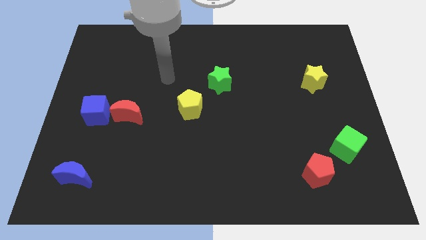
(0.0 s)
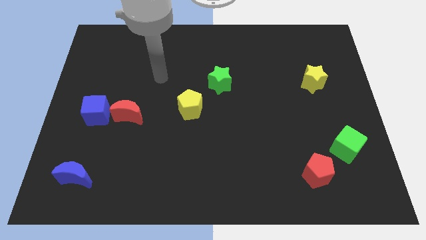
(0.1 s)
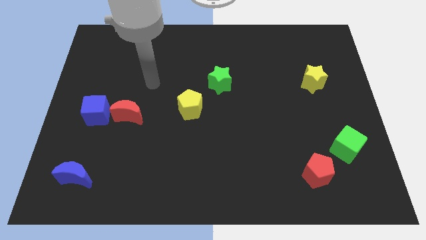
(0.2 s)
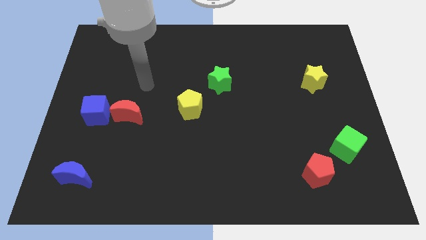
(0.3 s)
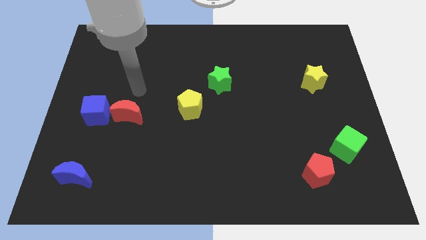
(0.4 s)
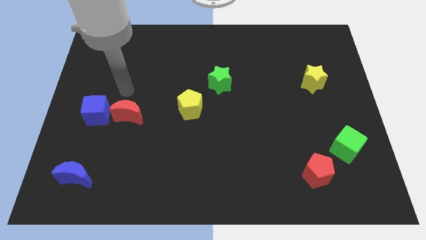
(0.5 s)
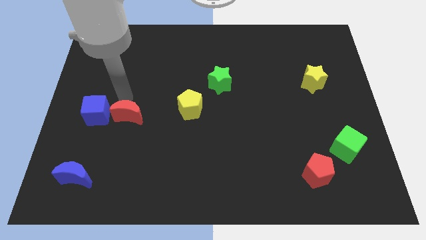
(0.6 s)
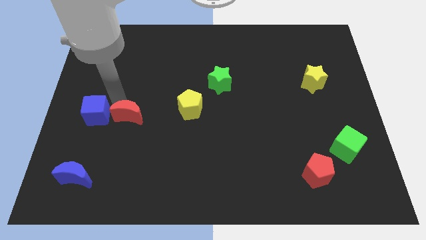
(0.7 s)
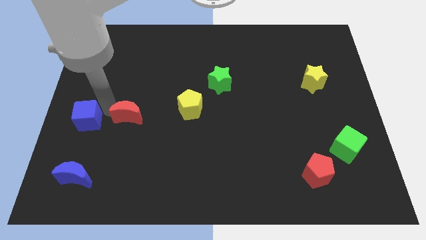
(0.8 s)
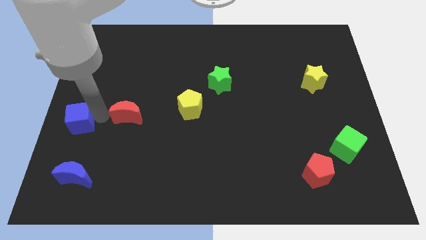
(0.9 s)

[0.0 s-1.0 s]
separate the red moon from the blue cube

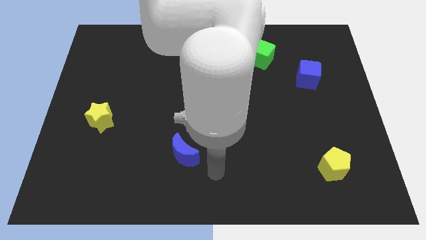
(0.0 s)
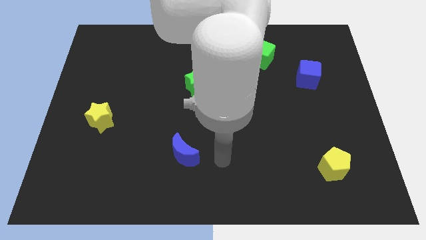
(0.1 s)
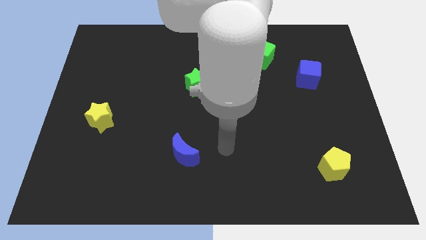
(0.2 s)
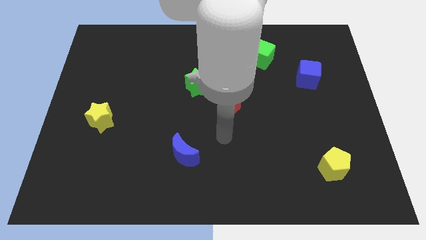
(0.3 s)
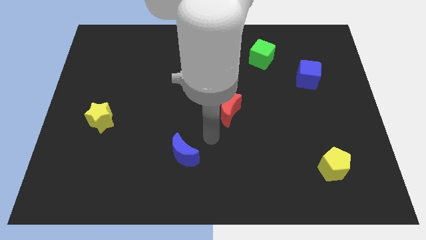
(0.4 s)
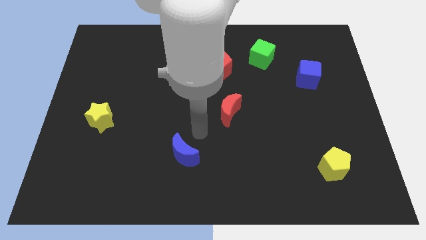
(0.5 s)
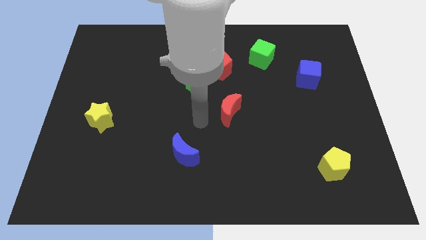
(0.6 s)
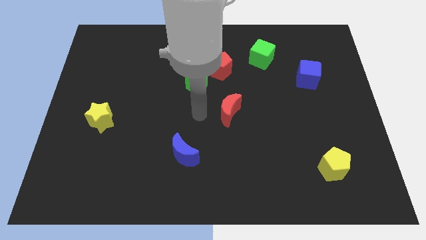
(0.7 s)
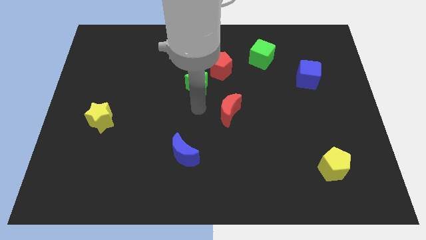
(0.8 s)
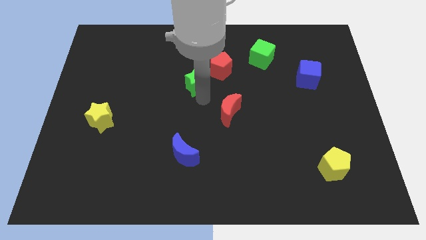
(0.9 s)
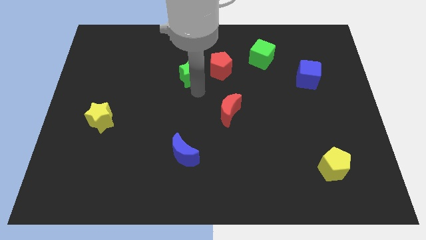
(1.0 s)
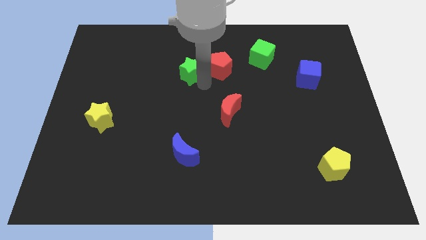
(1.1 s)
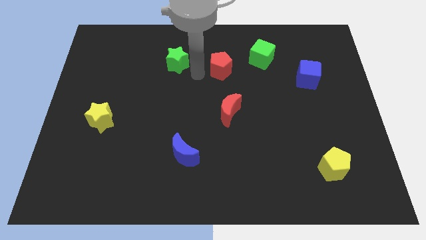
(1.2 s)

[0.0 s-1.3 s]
separate the red pentagon from the green star

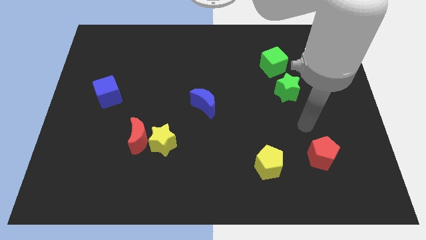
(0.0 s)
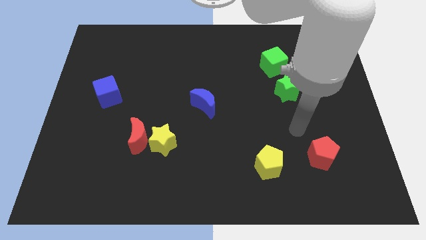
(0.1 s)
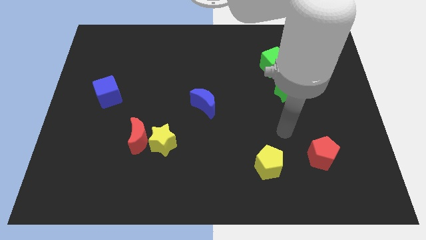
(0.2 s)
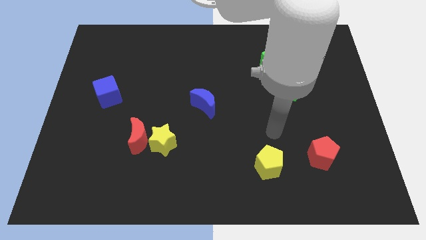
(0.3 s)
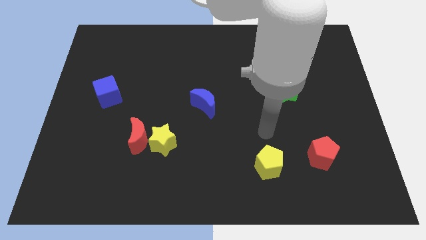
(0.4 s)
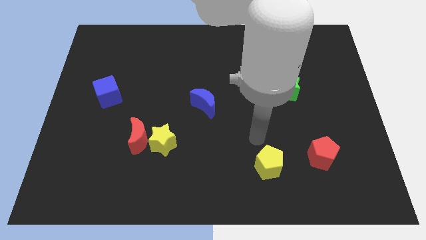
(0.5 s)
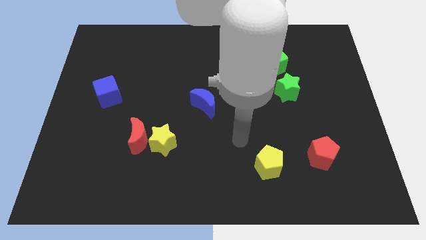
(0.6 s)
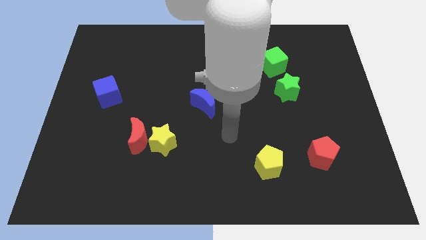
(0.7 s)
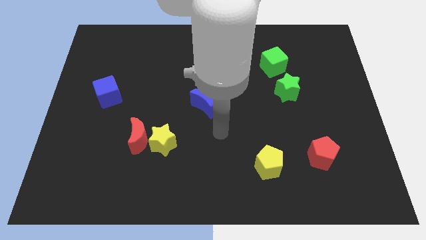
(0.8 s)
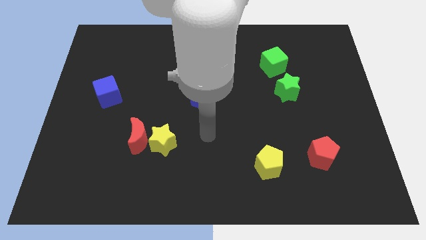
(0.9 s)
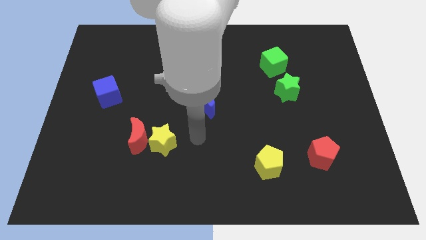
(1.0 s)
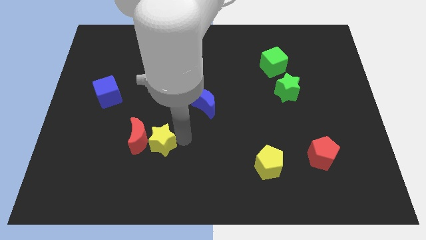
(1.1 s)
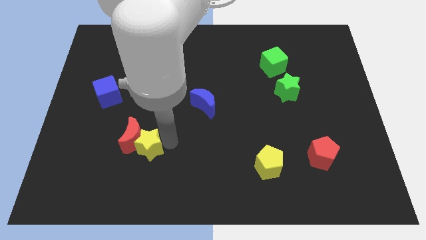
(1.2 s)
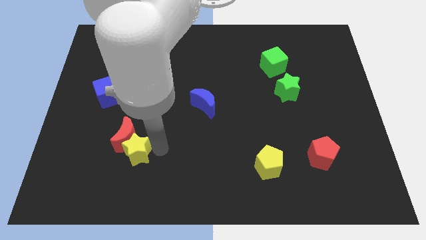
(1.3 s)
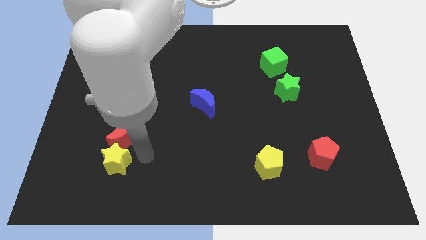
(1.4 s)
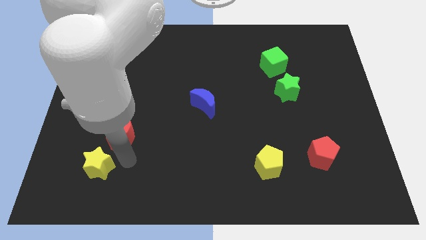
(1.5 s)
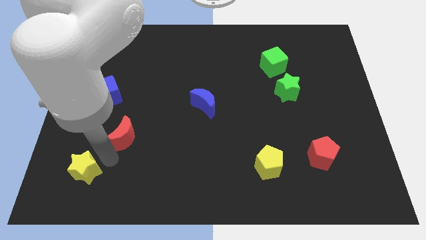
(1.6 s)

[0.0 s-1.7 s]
move the red moon away from the yellow star

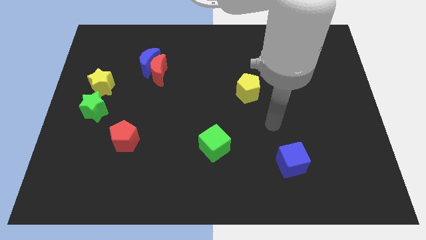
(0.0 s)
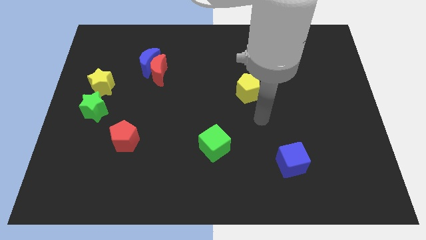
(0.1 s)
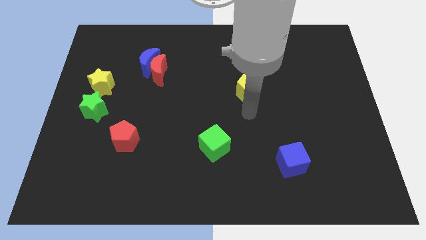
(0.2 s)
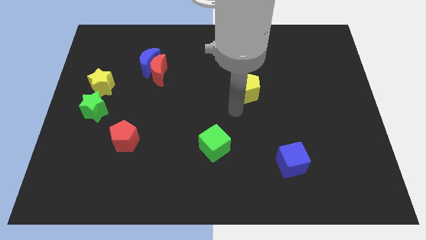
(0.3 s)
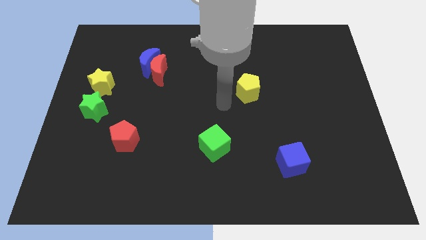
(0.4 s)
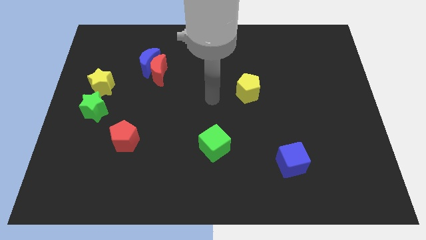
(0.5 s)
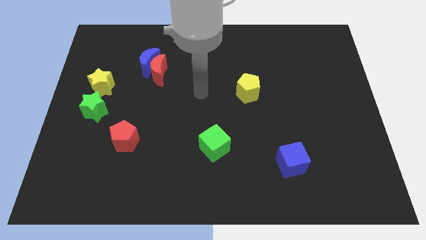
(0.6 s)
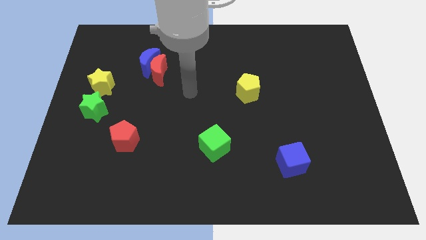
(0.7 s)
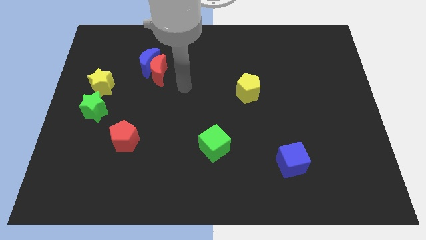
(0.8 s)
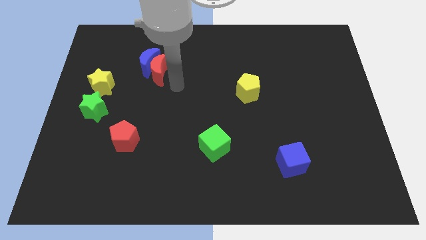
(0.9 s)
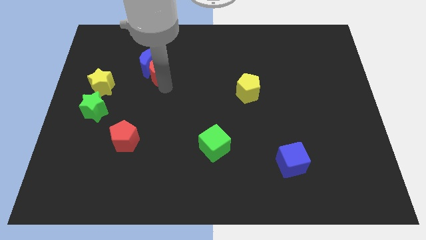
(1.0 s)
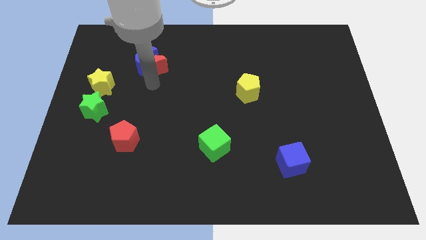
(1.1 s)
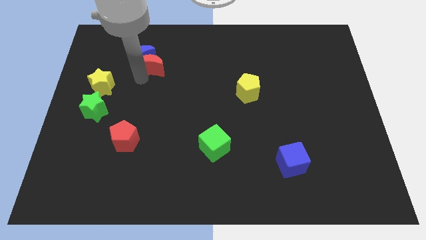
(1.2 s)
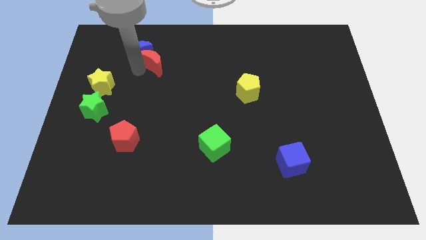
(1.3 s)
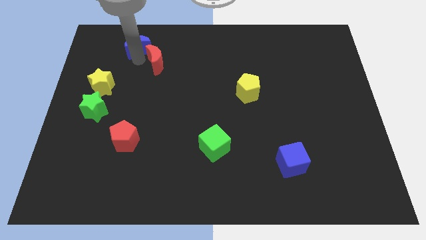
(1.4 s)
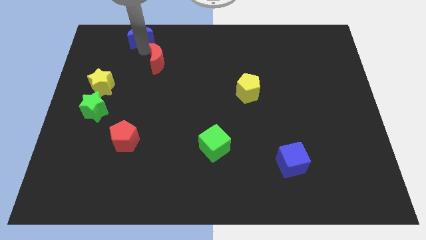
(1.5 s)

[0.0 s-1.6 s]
separate the red moon from the blue moon

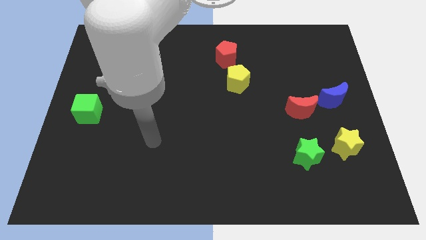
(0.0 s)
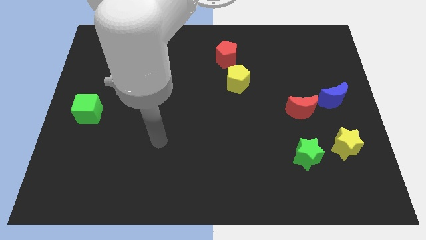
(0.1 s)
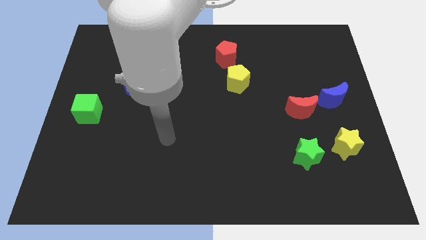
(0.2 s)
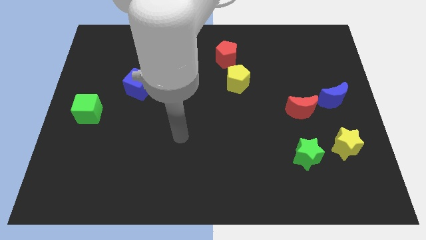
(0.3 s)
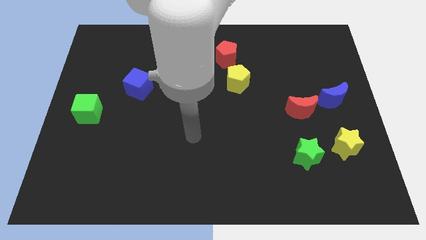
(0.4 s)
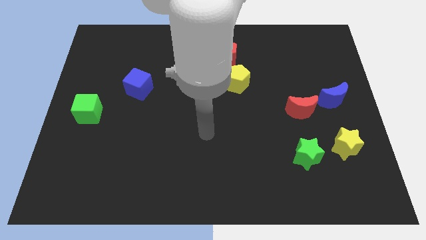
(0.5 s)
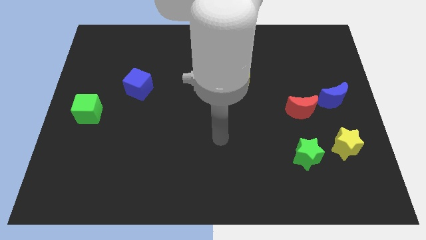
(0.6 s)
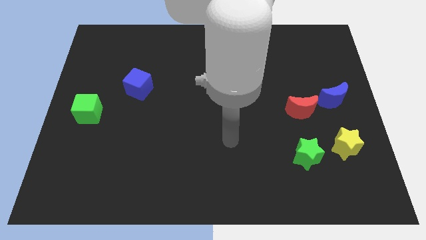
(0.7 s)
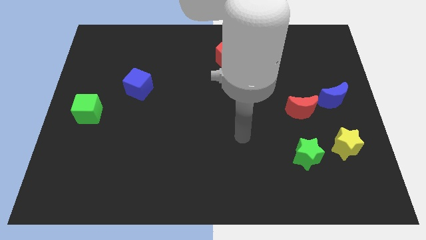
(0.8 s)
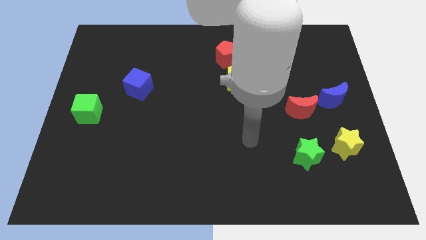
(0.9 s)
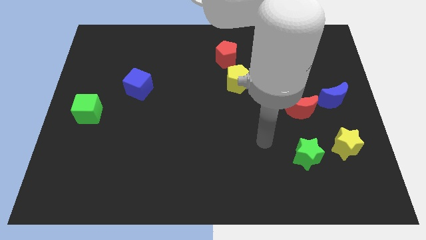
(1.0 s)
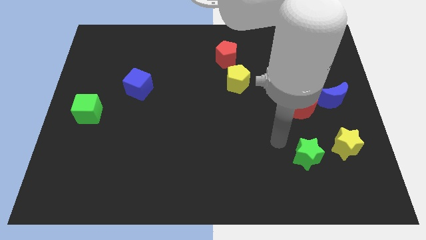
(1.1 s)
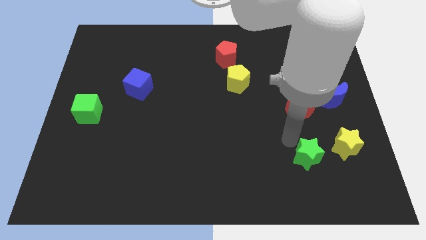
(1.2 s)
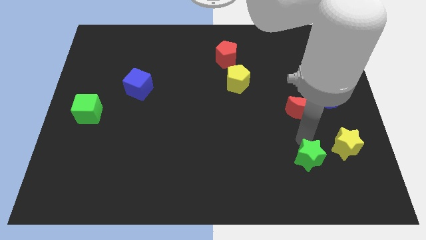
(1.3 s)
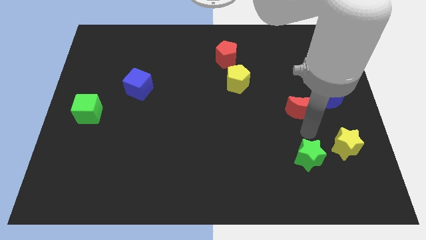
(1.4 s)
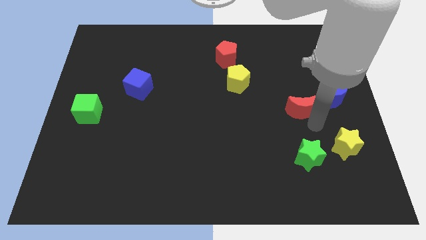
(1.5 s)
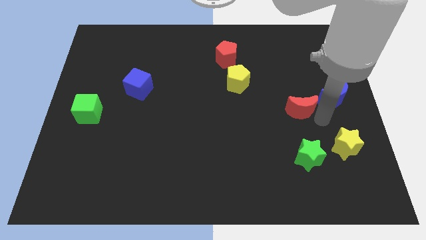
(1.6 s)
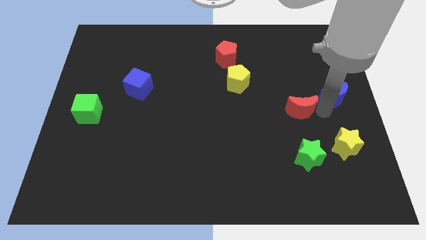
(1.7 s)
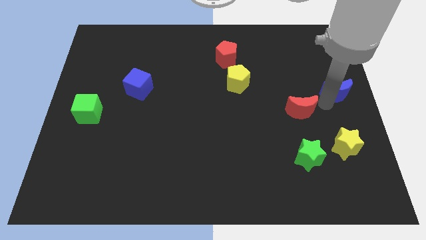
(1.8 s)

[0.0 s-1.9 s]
move the red moon away from the blue moon

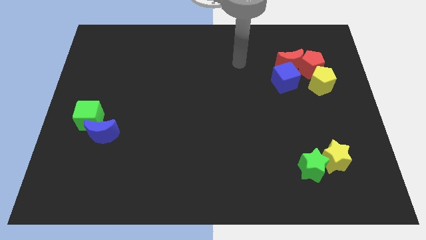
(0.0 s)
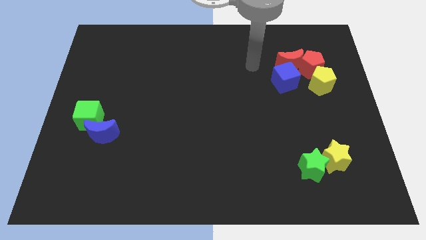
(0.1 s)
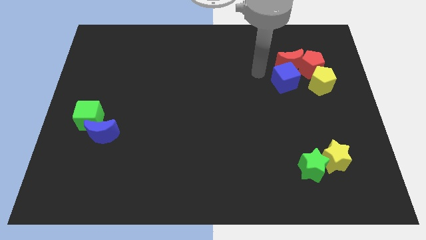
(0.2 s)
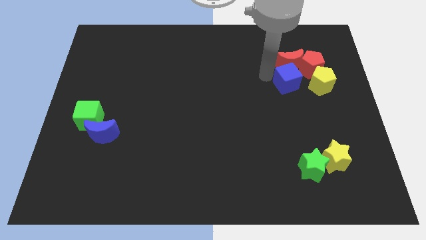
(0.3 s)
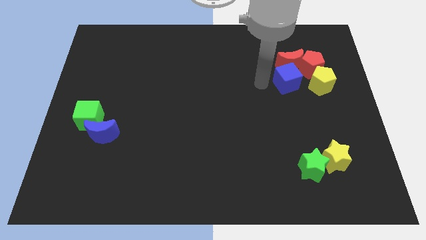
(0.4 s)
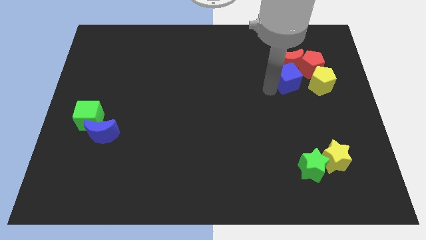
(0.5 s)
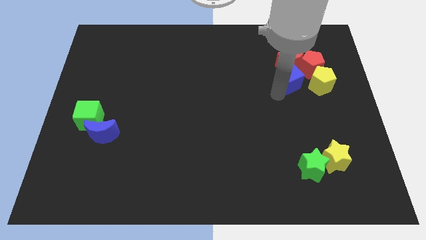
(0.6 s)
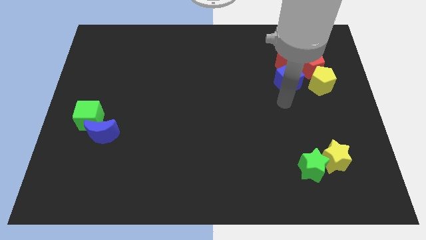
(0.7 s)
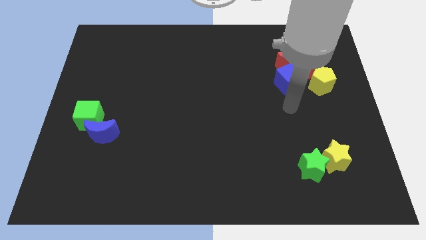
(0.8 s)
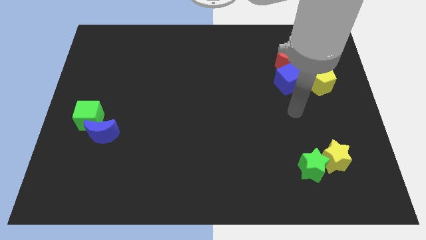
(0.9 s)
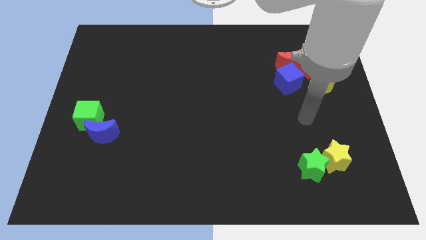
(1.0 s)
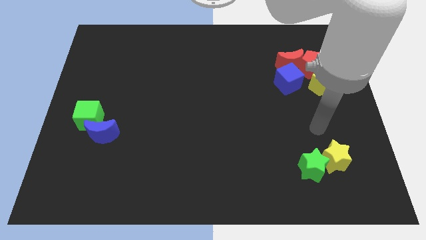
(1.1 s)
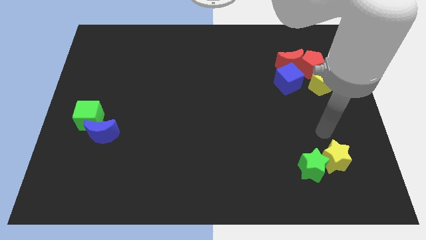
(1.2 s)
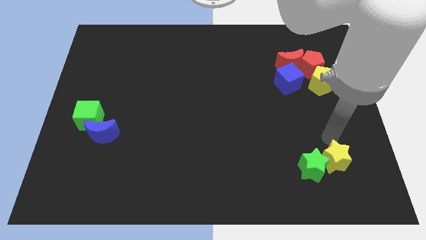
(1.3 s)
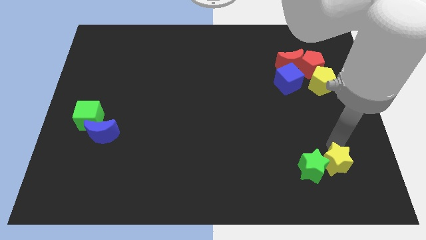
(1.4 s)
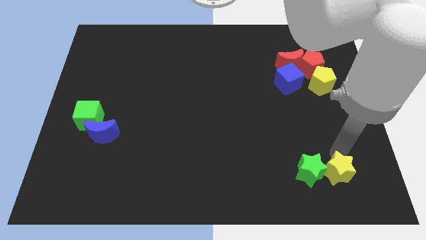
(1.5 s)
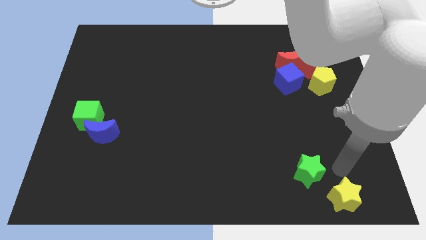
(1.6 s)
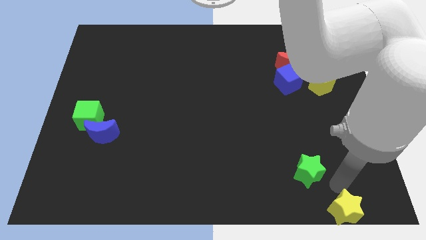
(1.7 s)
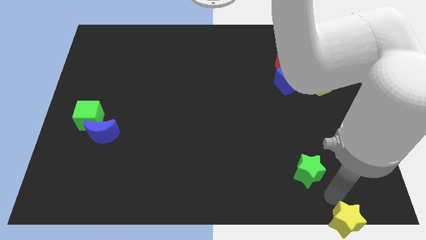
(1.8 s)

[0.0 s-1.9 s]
move the green star away from the yellow star
